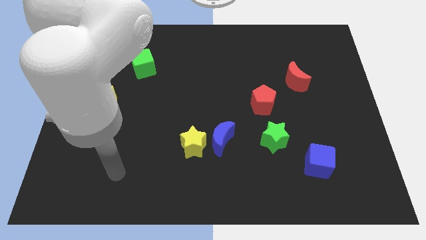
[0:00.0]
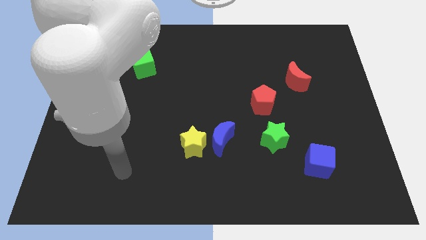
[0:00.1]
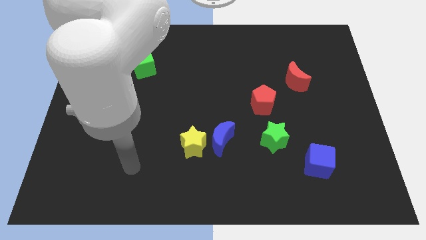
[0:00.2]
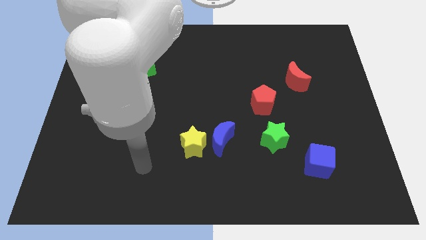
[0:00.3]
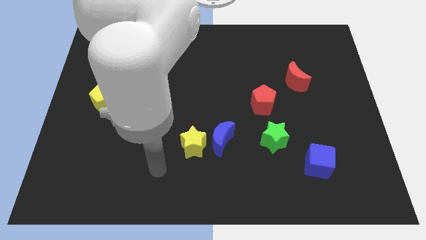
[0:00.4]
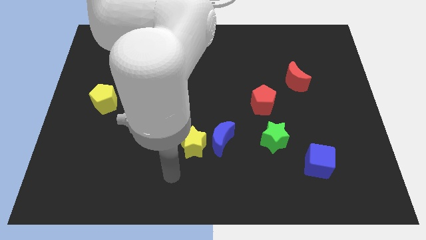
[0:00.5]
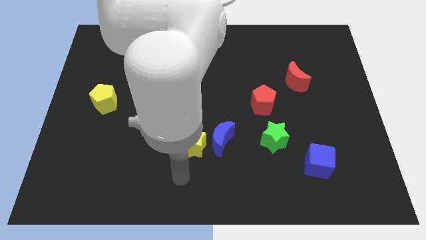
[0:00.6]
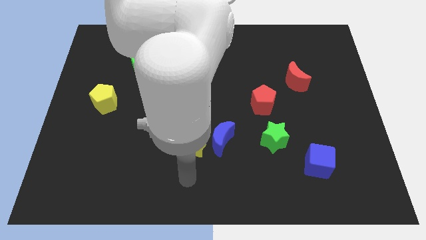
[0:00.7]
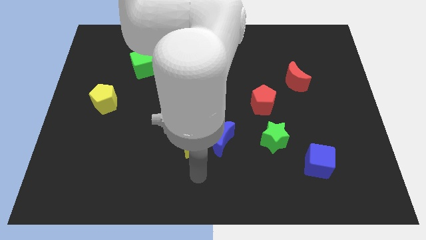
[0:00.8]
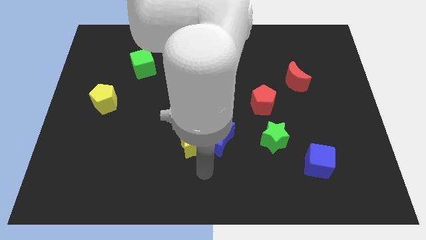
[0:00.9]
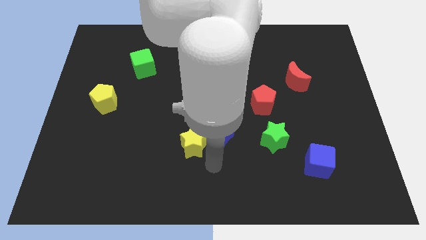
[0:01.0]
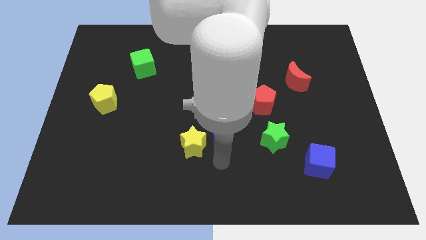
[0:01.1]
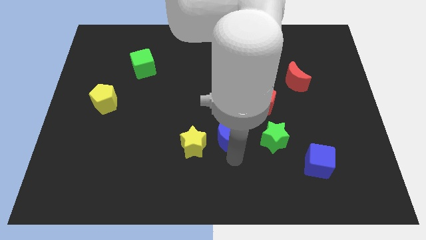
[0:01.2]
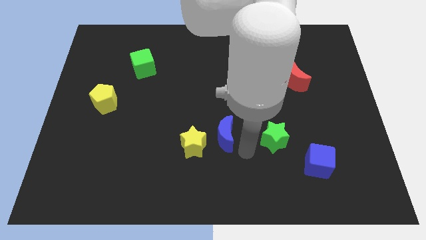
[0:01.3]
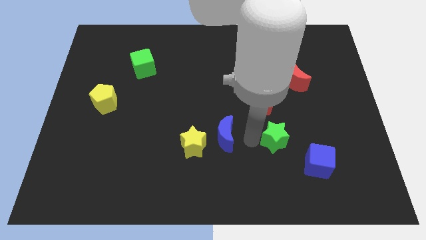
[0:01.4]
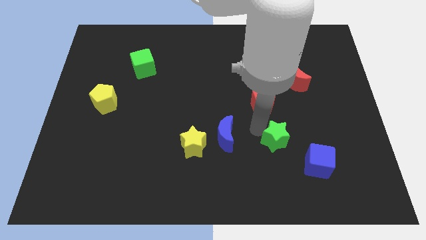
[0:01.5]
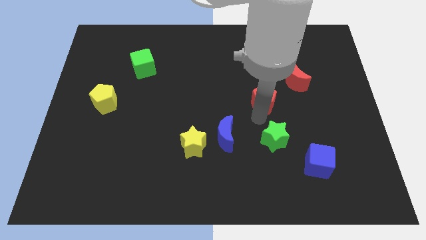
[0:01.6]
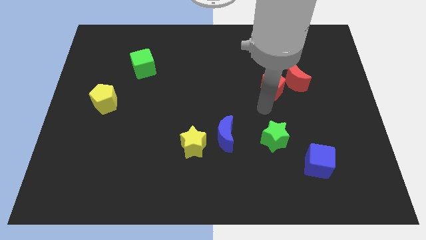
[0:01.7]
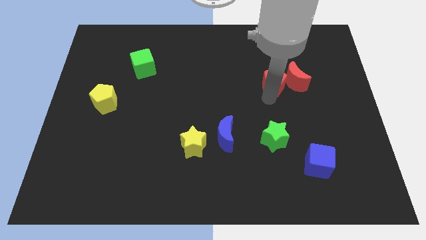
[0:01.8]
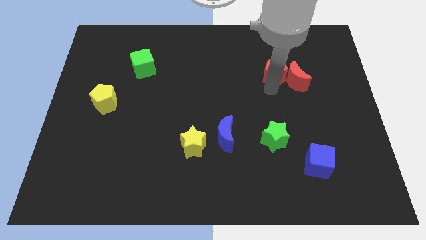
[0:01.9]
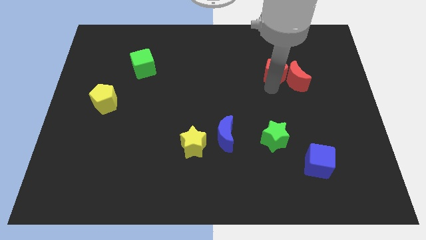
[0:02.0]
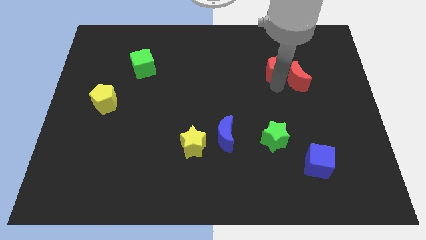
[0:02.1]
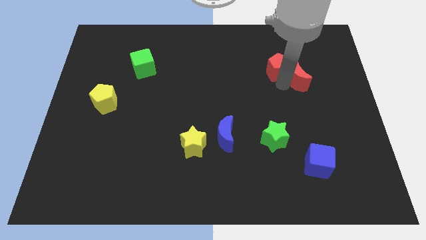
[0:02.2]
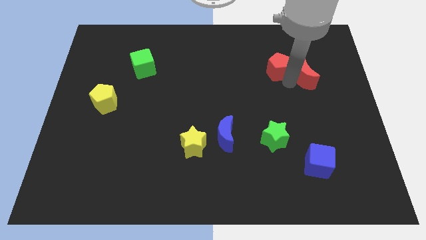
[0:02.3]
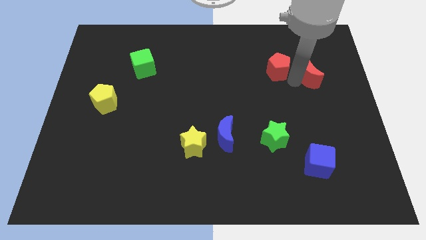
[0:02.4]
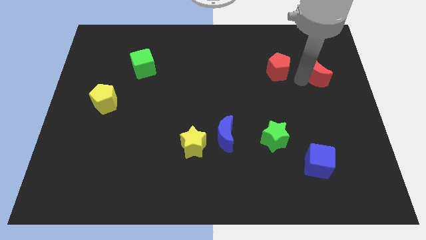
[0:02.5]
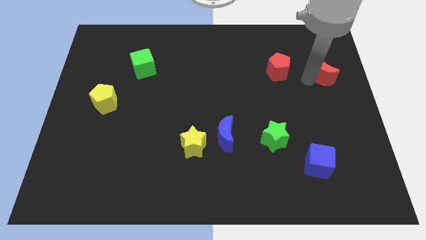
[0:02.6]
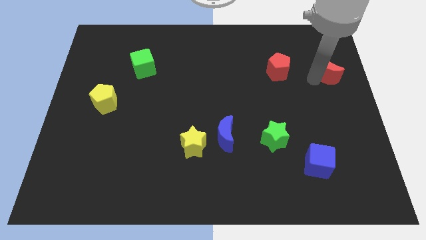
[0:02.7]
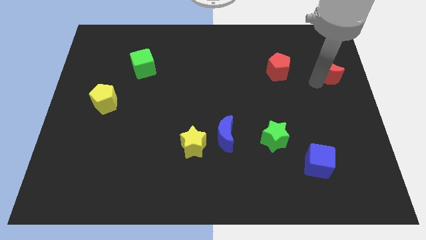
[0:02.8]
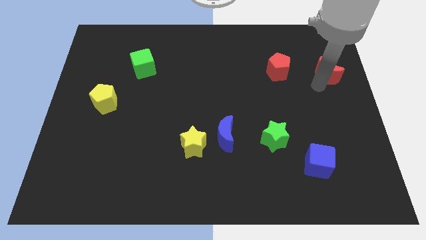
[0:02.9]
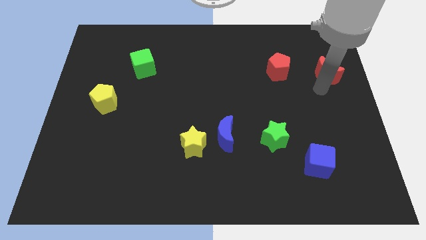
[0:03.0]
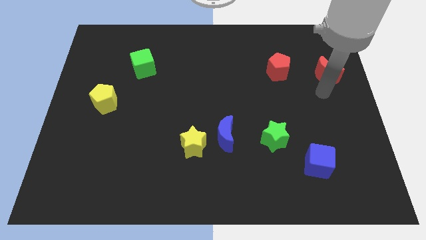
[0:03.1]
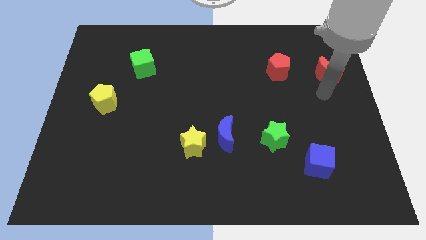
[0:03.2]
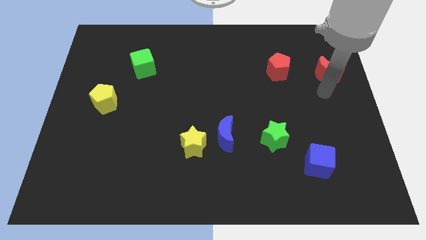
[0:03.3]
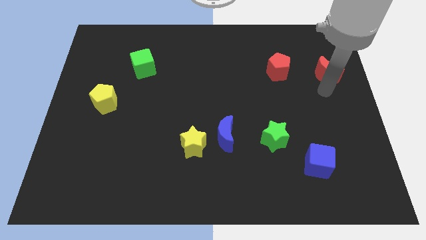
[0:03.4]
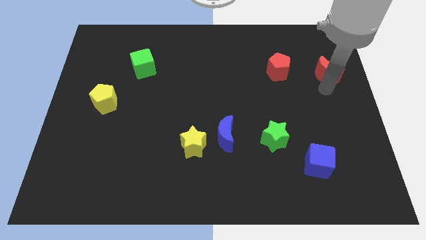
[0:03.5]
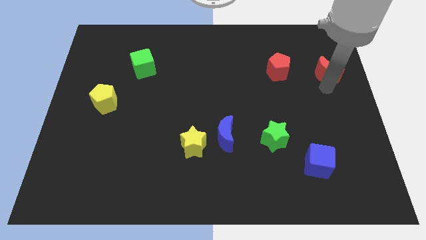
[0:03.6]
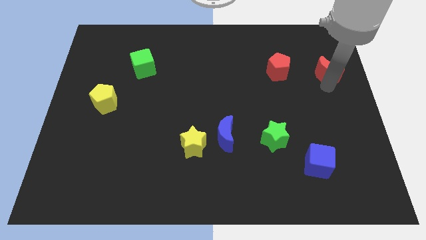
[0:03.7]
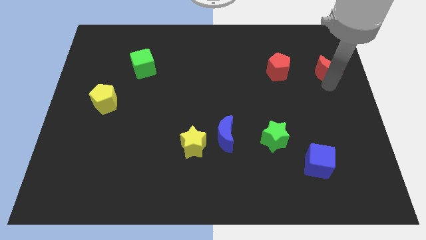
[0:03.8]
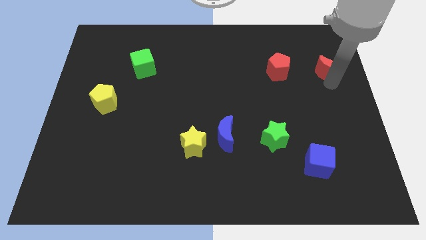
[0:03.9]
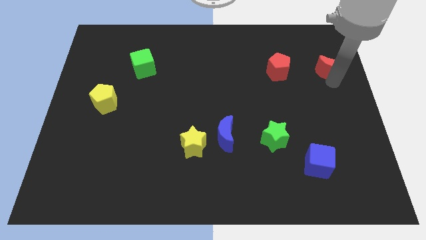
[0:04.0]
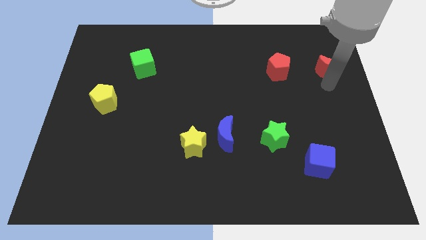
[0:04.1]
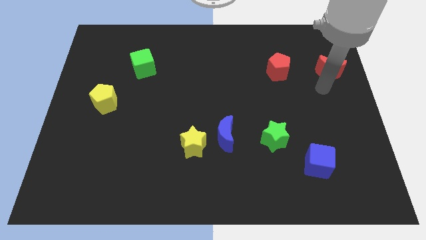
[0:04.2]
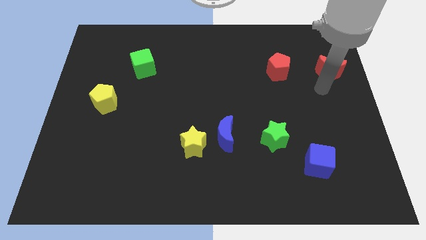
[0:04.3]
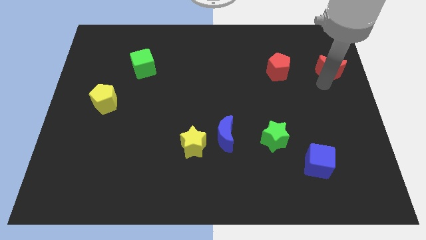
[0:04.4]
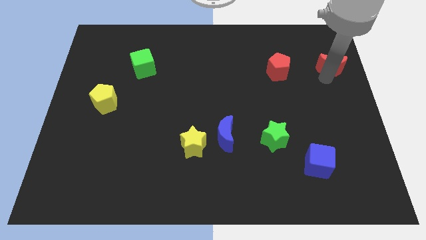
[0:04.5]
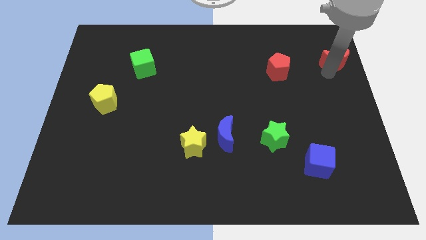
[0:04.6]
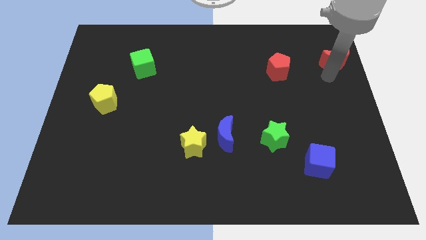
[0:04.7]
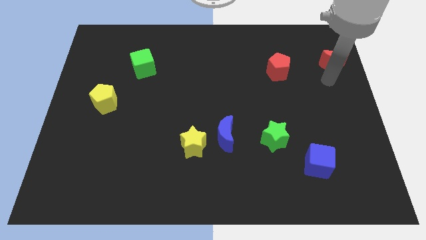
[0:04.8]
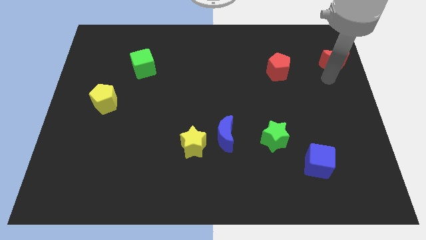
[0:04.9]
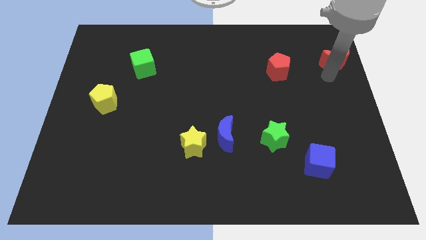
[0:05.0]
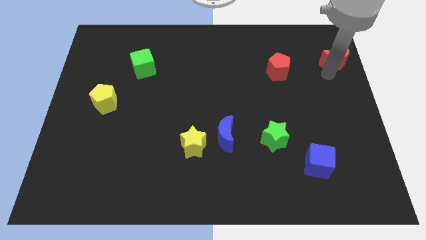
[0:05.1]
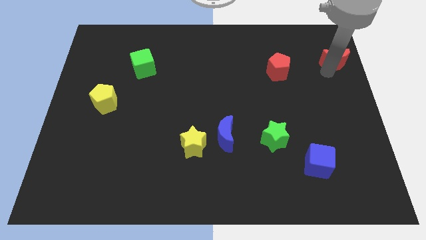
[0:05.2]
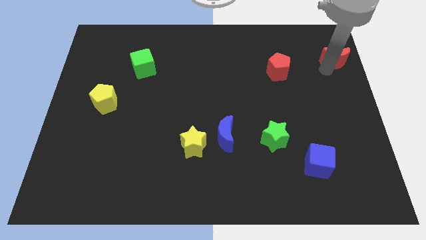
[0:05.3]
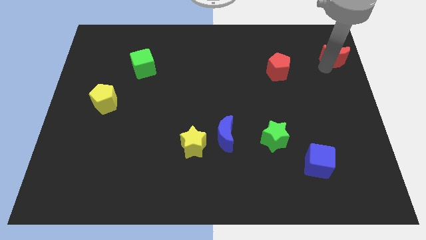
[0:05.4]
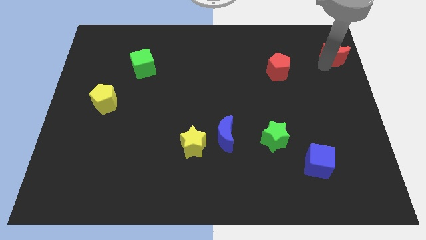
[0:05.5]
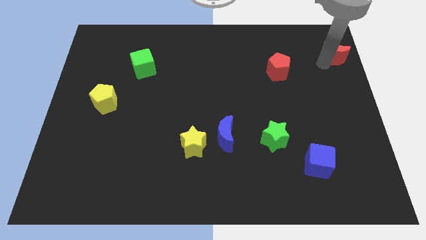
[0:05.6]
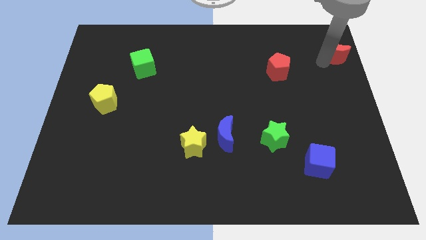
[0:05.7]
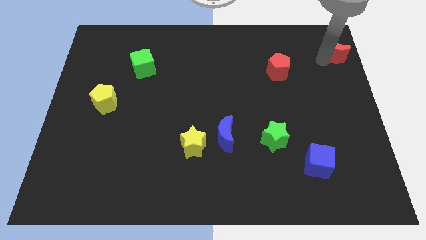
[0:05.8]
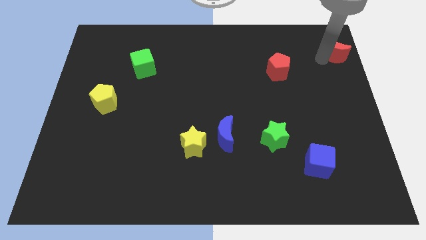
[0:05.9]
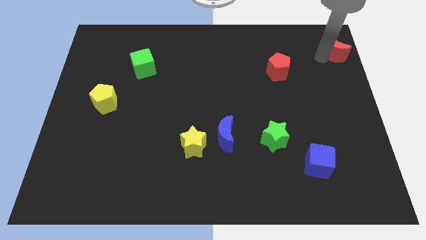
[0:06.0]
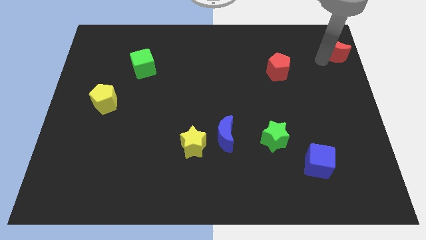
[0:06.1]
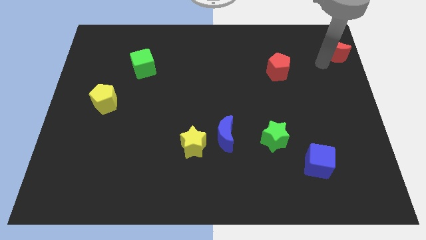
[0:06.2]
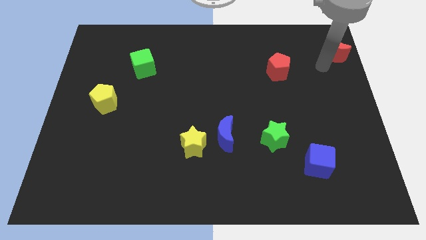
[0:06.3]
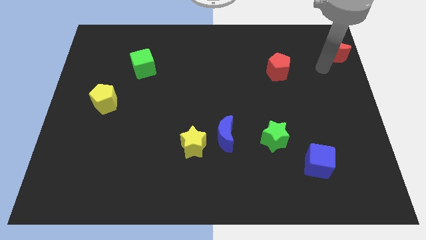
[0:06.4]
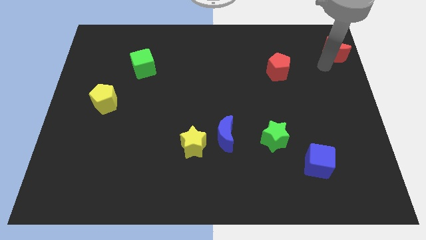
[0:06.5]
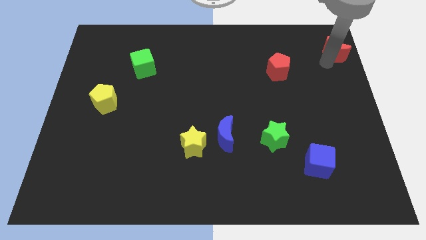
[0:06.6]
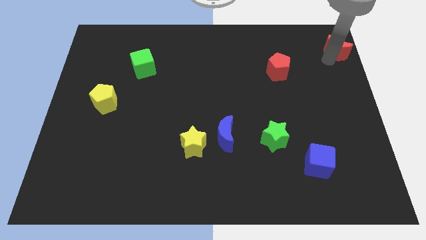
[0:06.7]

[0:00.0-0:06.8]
push the red moon to the top right of the board

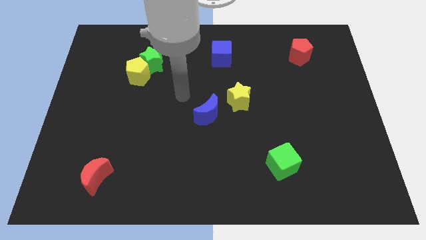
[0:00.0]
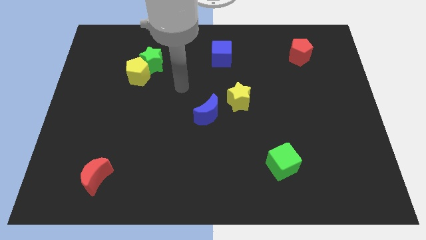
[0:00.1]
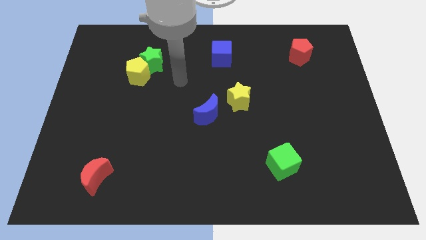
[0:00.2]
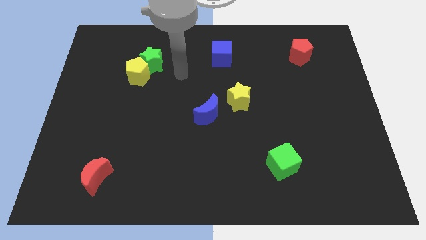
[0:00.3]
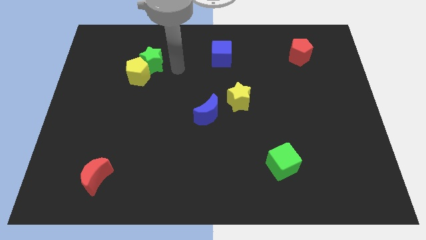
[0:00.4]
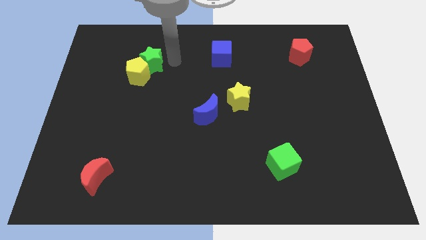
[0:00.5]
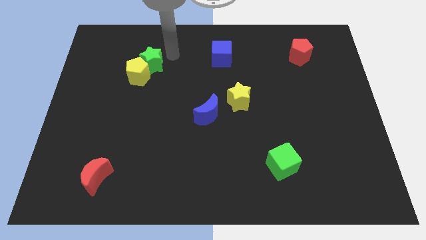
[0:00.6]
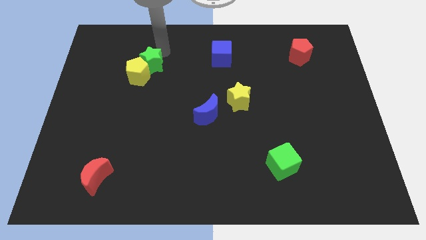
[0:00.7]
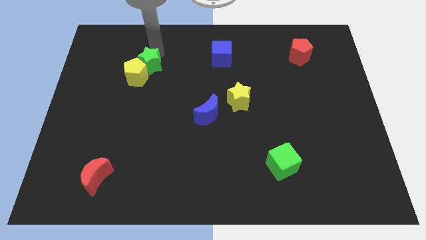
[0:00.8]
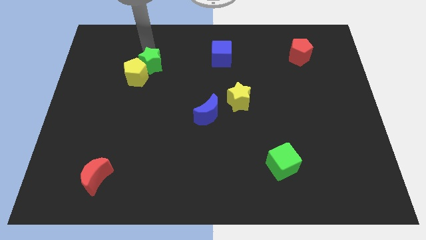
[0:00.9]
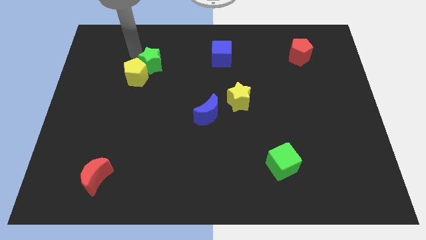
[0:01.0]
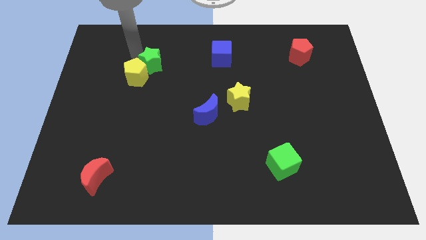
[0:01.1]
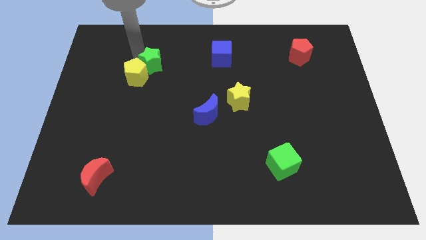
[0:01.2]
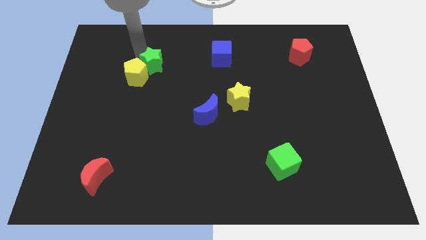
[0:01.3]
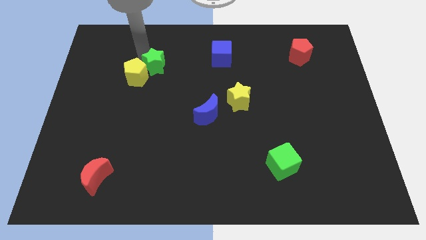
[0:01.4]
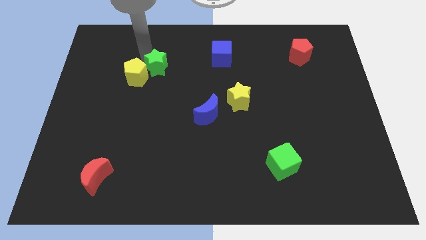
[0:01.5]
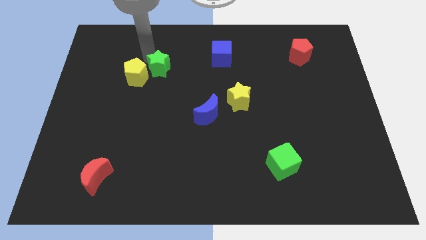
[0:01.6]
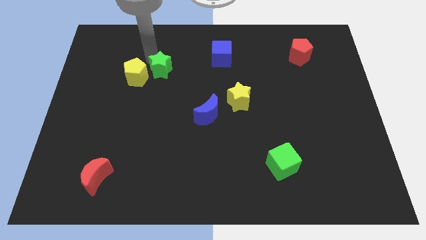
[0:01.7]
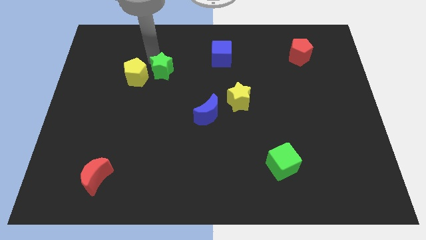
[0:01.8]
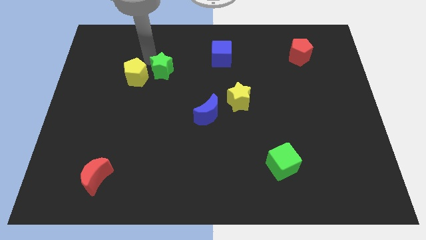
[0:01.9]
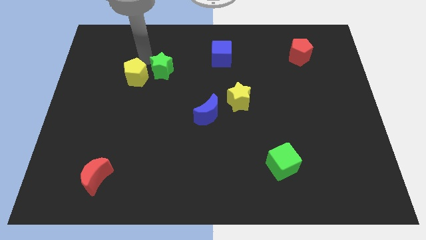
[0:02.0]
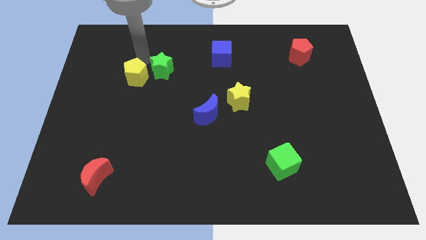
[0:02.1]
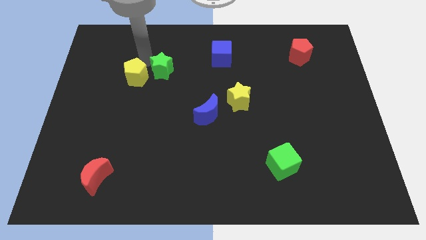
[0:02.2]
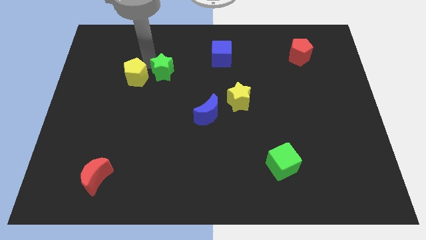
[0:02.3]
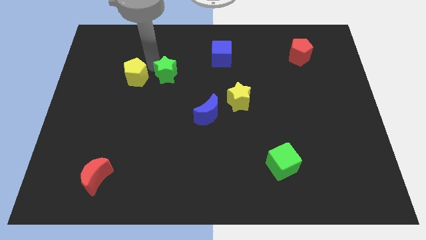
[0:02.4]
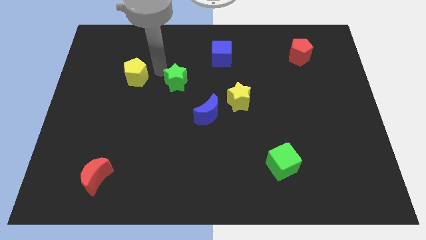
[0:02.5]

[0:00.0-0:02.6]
put the green star to the middle of the board
